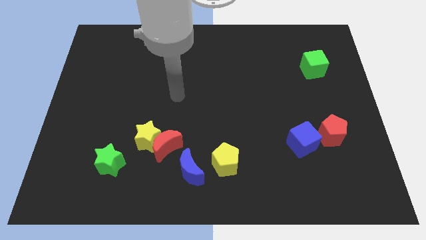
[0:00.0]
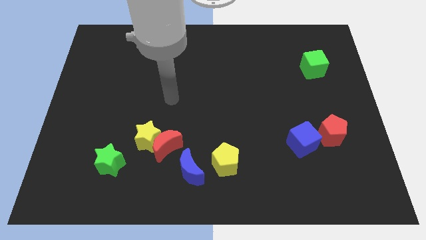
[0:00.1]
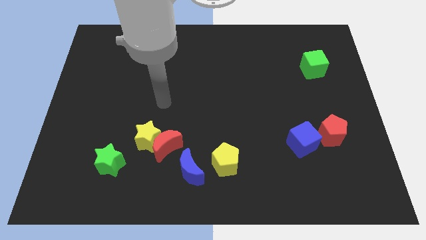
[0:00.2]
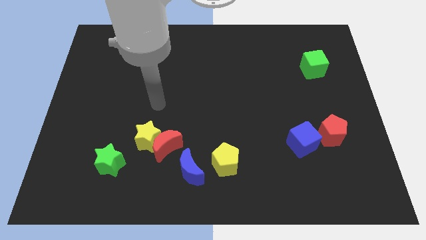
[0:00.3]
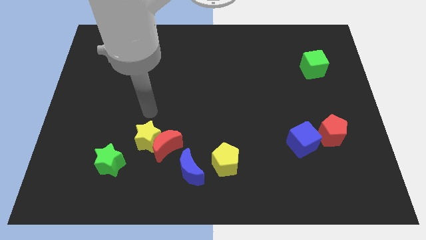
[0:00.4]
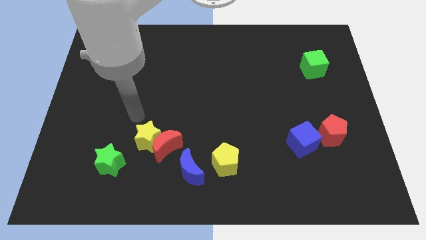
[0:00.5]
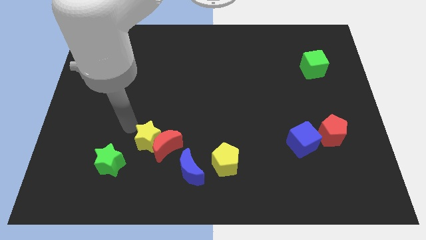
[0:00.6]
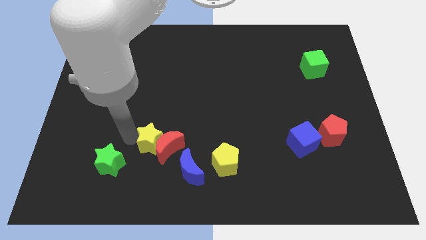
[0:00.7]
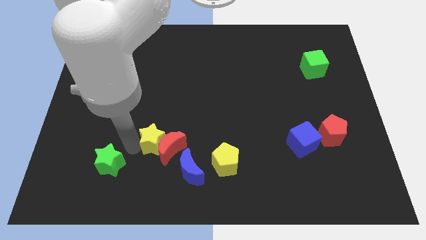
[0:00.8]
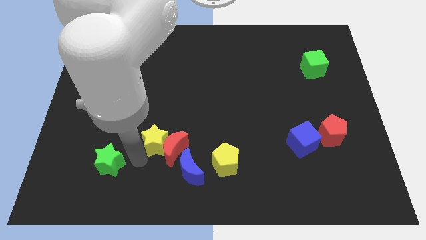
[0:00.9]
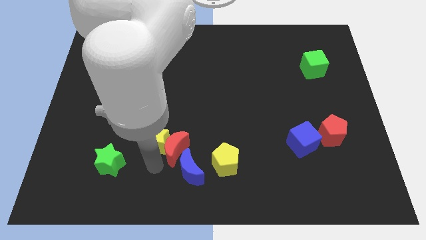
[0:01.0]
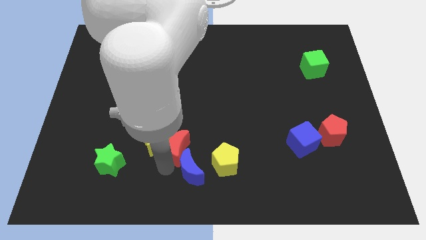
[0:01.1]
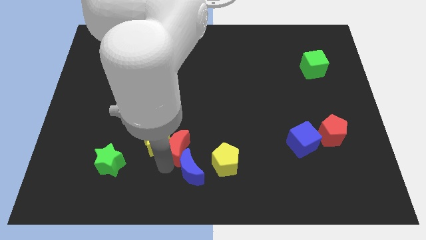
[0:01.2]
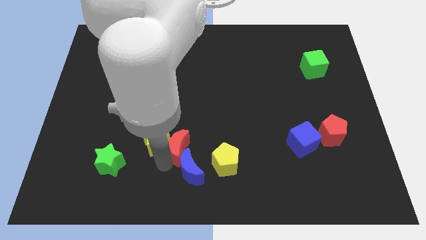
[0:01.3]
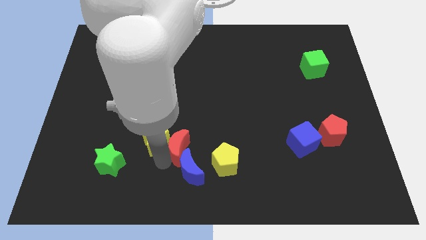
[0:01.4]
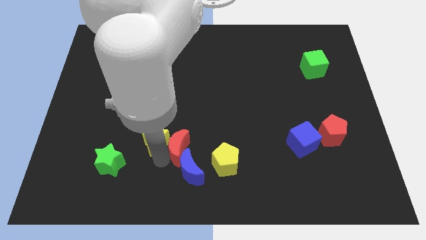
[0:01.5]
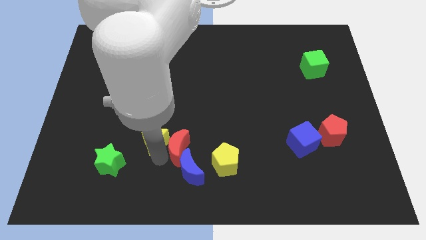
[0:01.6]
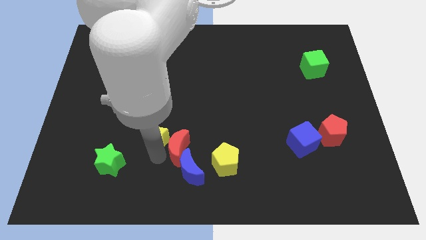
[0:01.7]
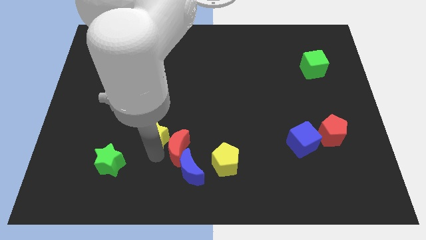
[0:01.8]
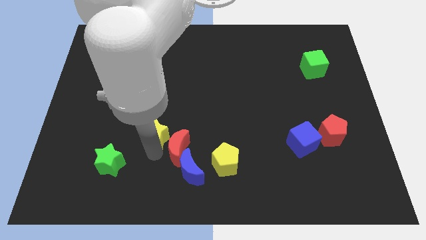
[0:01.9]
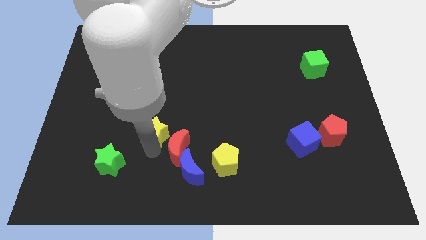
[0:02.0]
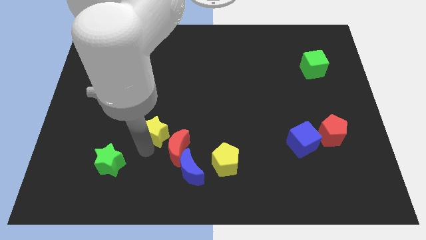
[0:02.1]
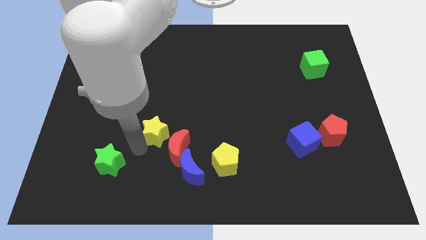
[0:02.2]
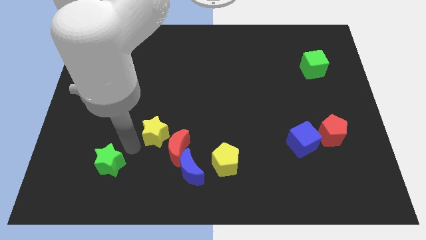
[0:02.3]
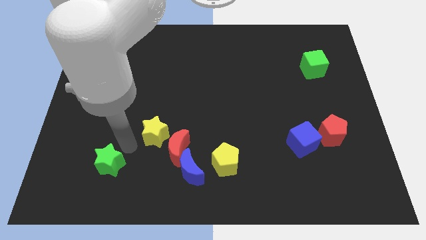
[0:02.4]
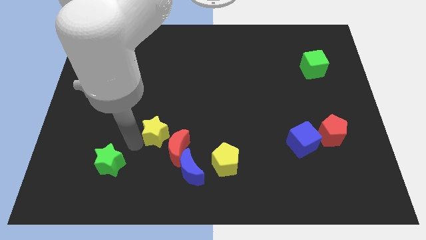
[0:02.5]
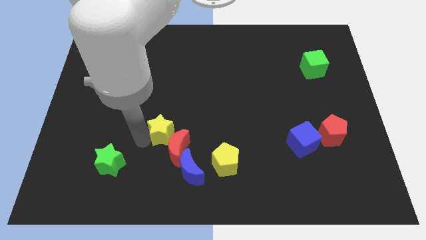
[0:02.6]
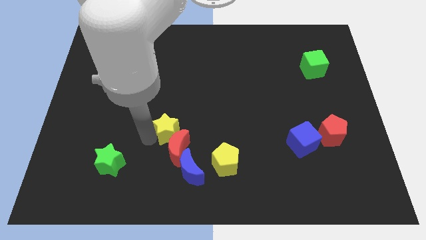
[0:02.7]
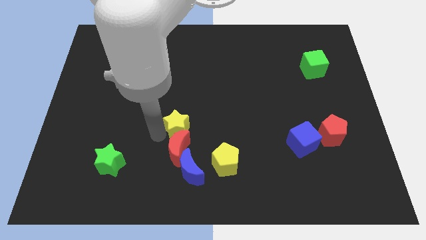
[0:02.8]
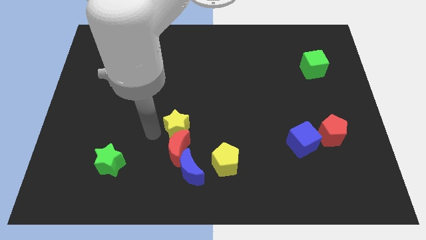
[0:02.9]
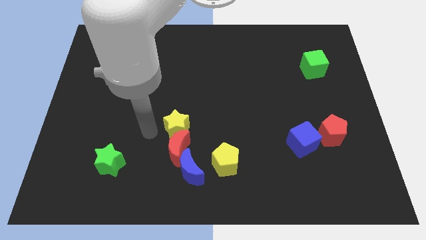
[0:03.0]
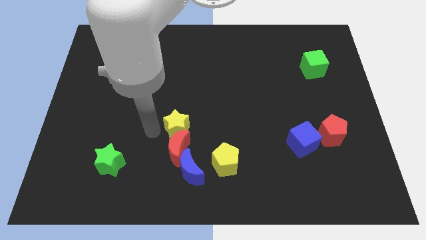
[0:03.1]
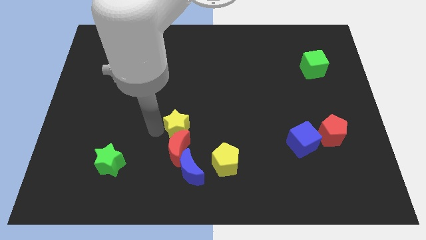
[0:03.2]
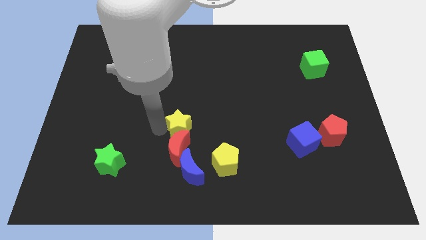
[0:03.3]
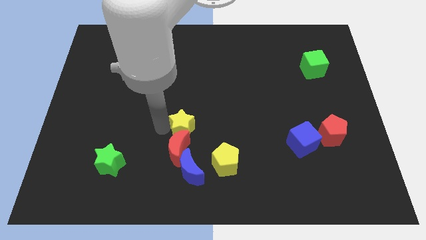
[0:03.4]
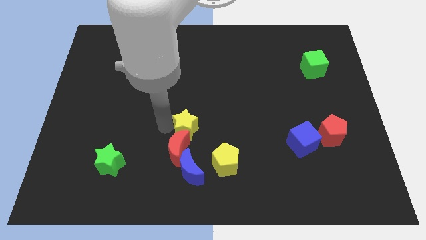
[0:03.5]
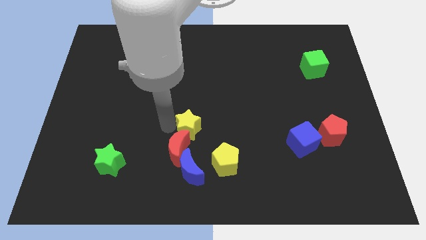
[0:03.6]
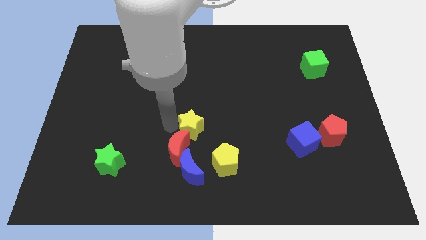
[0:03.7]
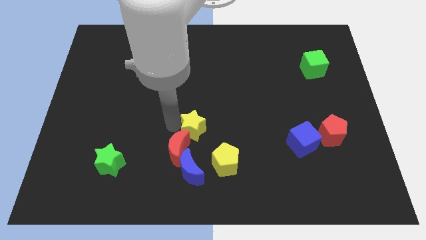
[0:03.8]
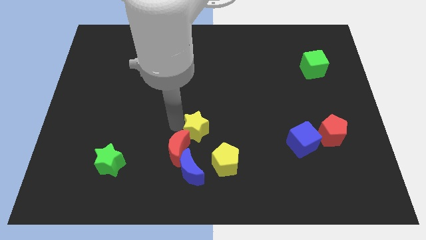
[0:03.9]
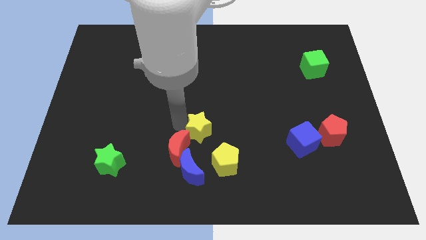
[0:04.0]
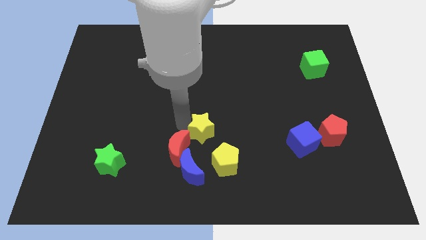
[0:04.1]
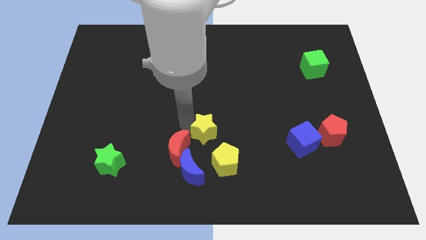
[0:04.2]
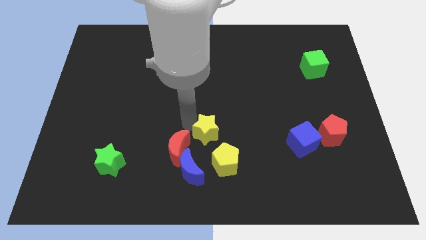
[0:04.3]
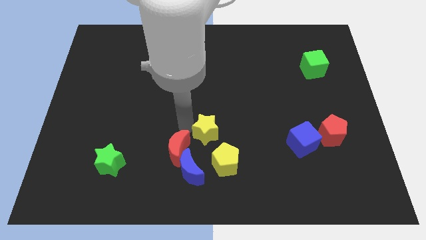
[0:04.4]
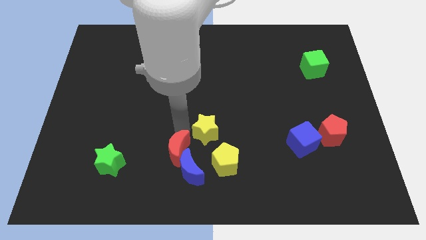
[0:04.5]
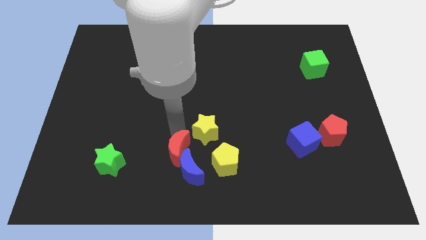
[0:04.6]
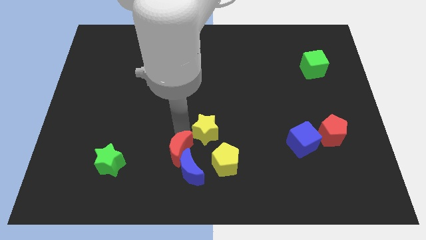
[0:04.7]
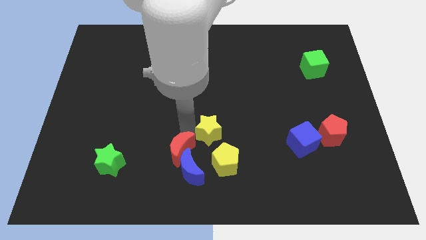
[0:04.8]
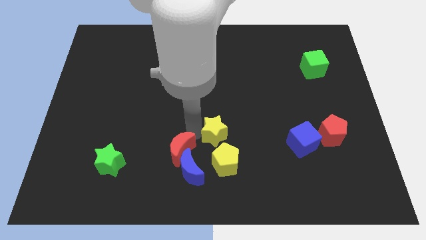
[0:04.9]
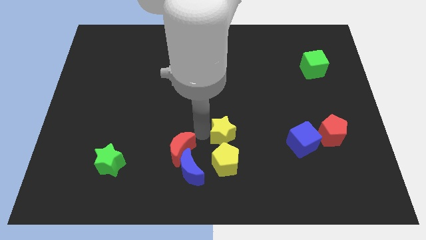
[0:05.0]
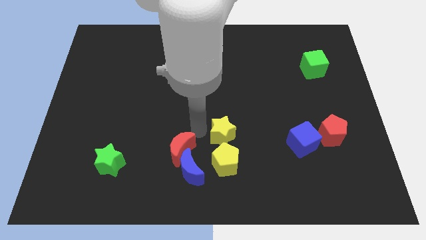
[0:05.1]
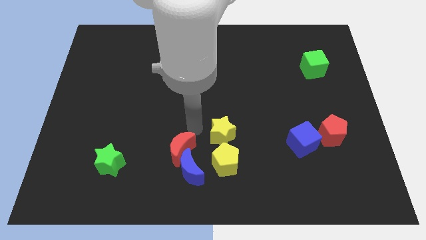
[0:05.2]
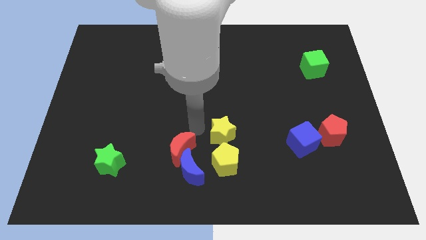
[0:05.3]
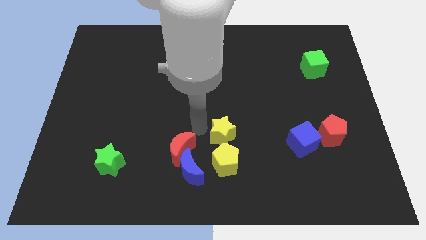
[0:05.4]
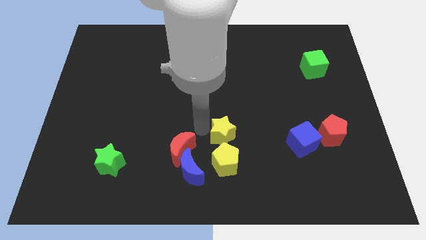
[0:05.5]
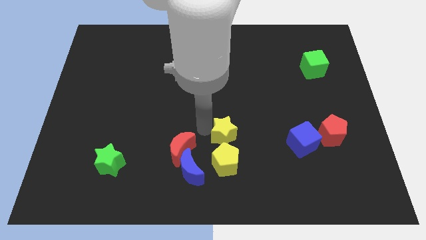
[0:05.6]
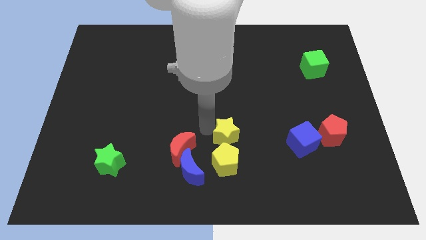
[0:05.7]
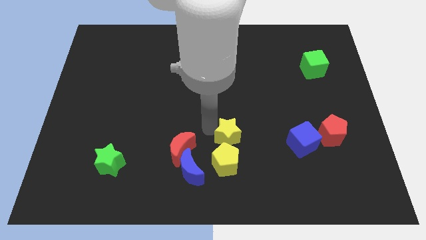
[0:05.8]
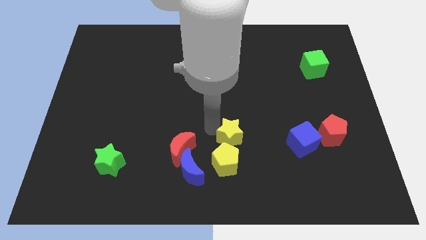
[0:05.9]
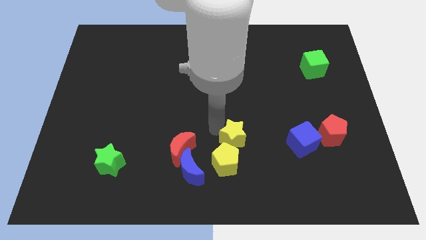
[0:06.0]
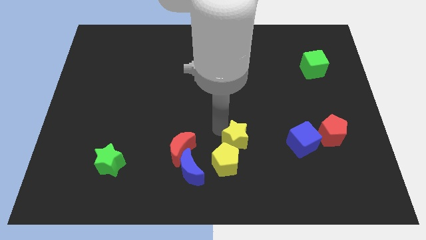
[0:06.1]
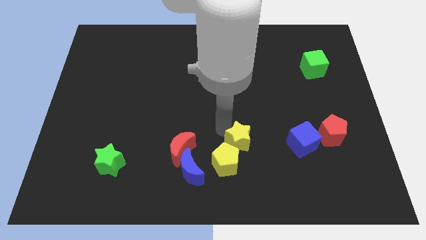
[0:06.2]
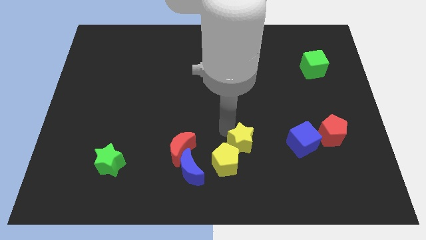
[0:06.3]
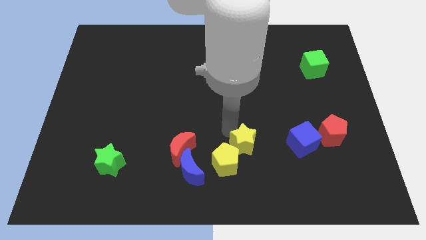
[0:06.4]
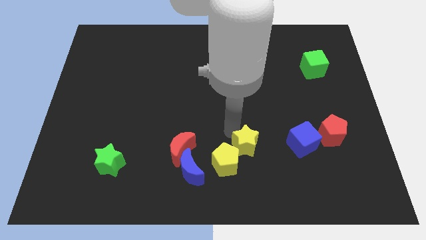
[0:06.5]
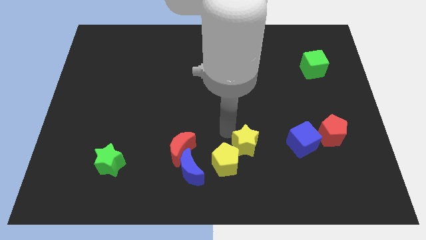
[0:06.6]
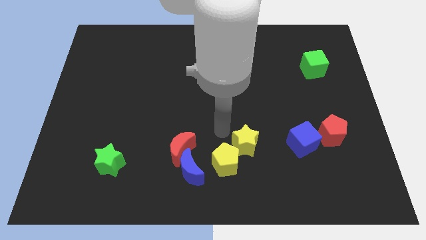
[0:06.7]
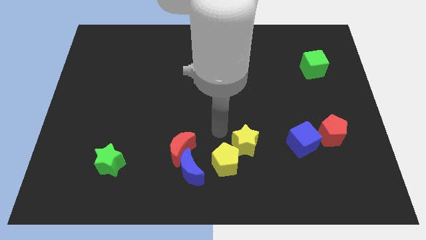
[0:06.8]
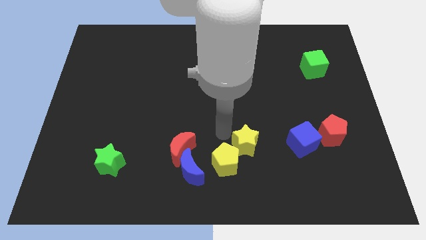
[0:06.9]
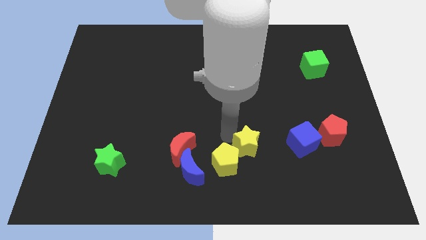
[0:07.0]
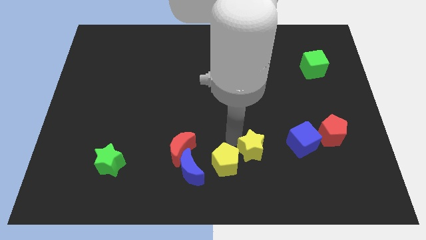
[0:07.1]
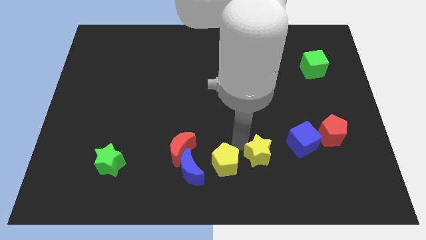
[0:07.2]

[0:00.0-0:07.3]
move the yellow star diagonally down and to the left of the blue cube
